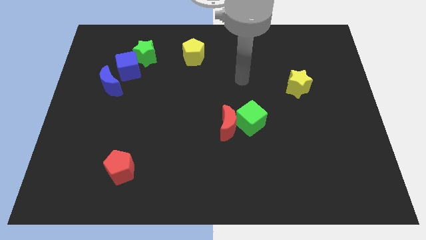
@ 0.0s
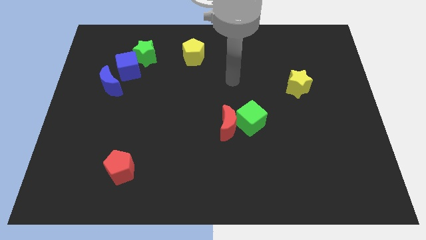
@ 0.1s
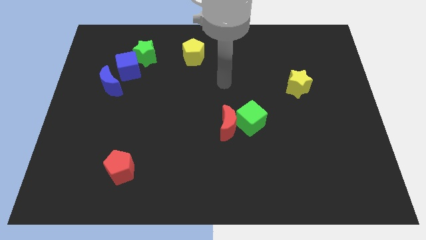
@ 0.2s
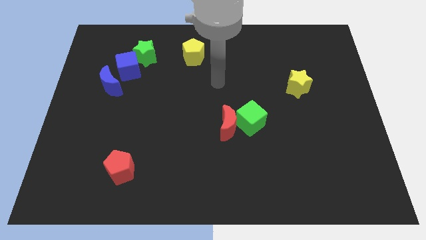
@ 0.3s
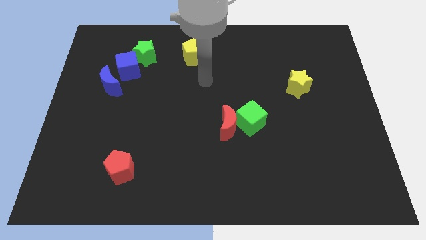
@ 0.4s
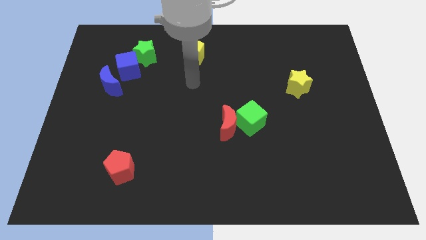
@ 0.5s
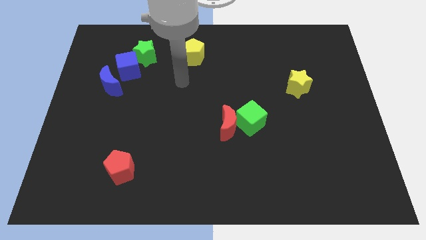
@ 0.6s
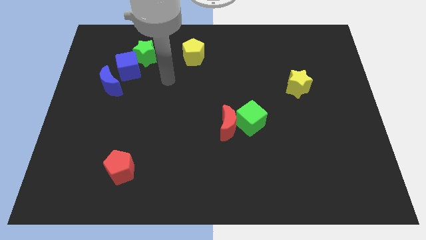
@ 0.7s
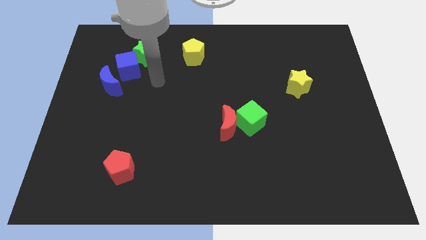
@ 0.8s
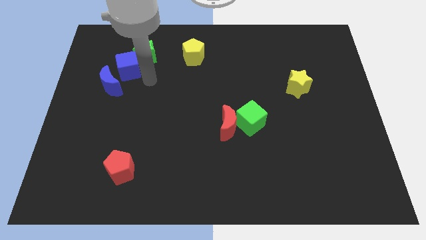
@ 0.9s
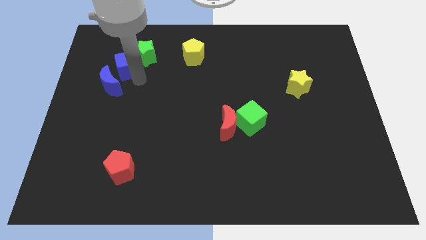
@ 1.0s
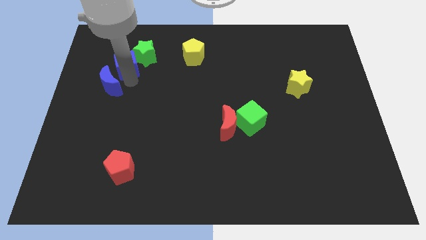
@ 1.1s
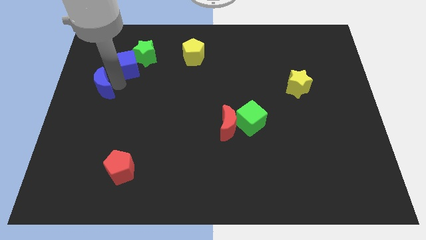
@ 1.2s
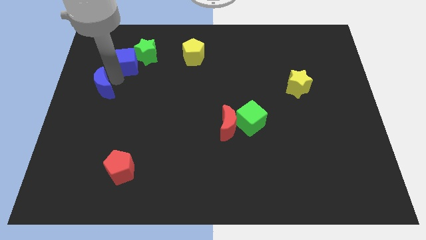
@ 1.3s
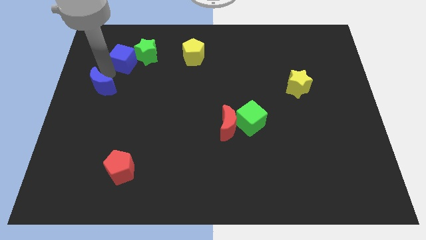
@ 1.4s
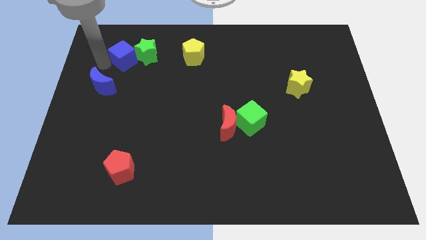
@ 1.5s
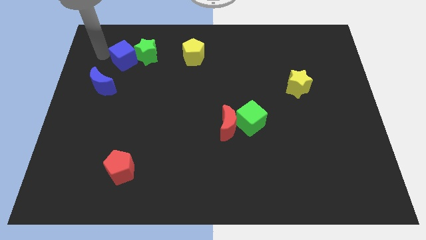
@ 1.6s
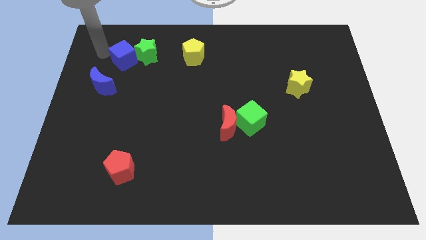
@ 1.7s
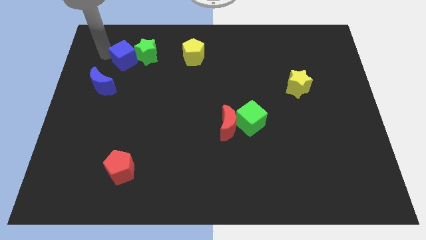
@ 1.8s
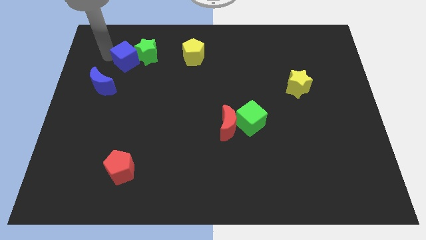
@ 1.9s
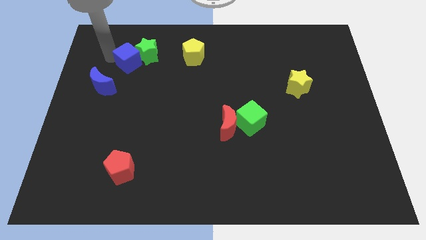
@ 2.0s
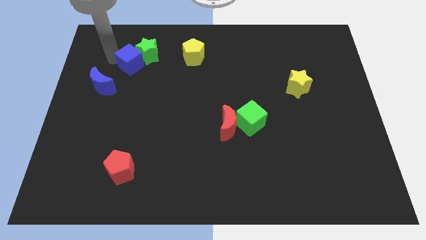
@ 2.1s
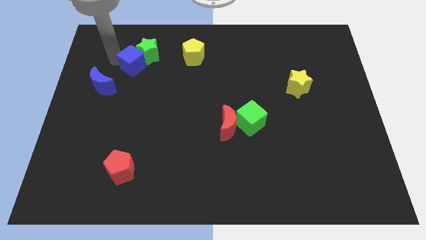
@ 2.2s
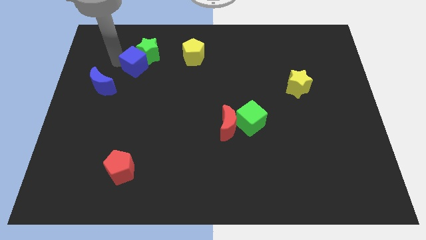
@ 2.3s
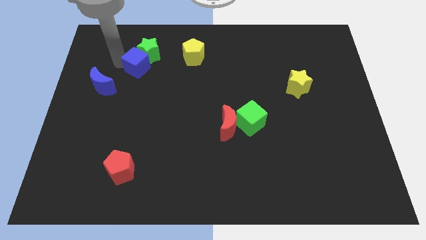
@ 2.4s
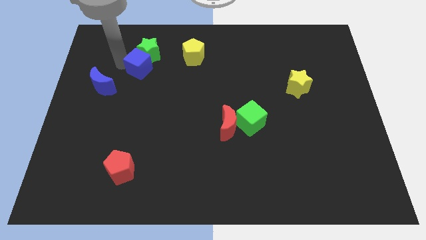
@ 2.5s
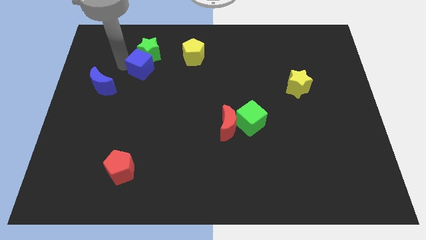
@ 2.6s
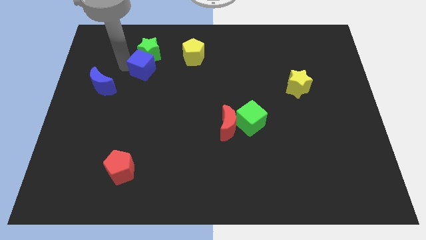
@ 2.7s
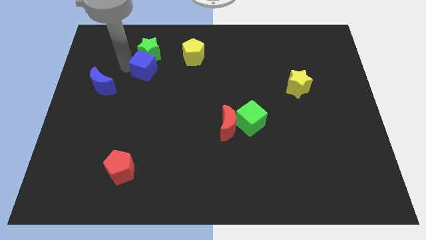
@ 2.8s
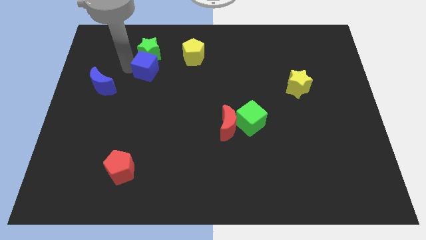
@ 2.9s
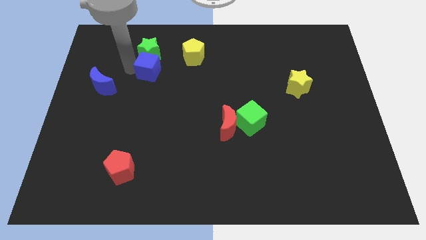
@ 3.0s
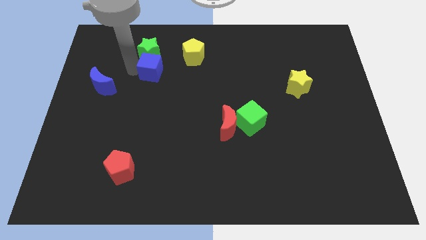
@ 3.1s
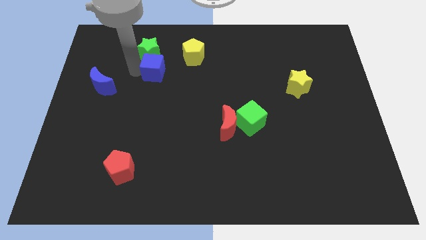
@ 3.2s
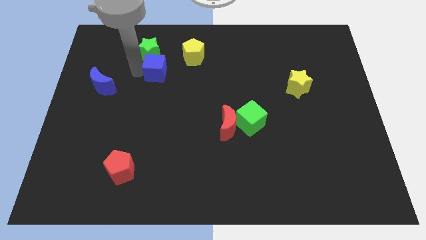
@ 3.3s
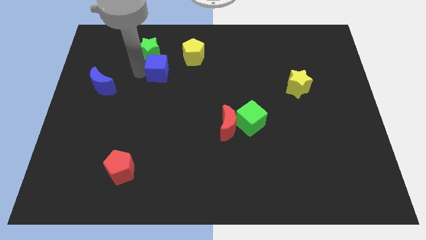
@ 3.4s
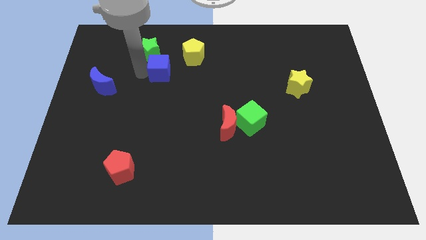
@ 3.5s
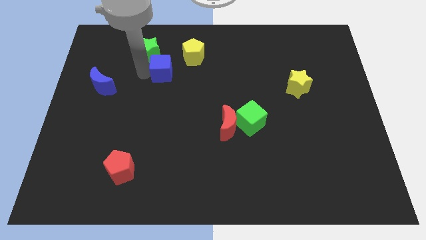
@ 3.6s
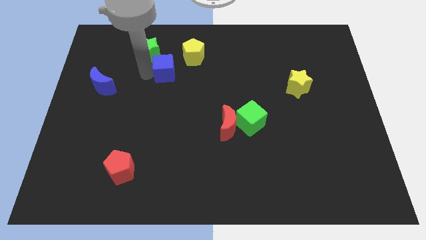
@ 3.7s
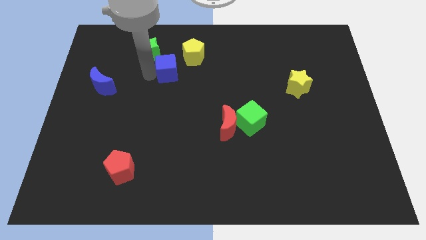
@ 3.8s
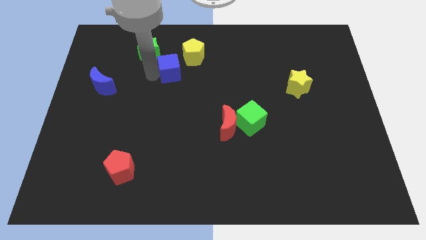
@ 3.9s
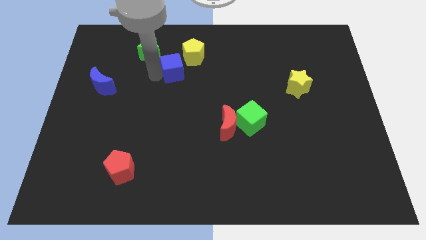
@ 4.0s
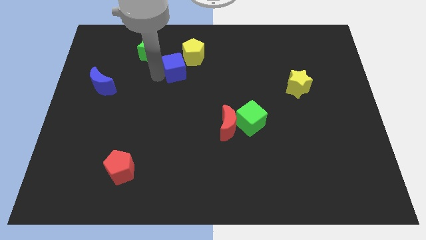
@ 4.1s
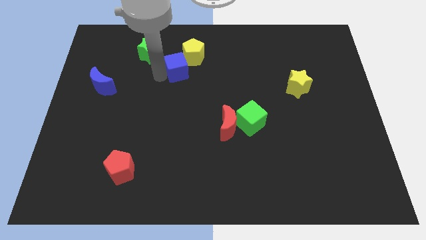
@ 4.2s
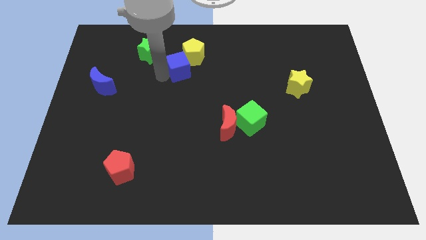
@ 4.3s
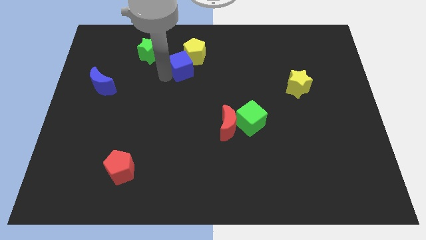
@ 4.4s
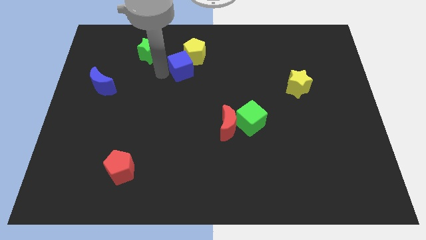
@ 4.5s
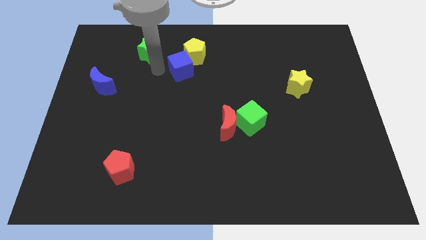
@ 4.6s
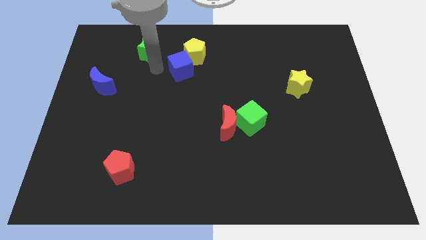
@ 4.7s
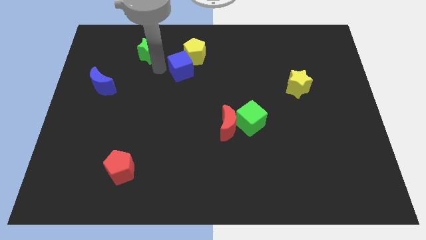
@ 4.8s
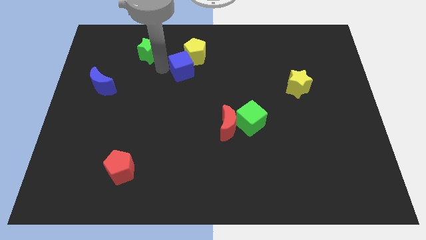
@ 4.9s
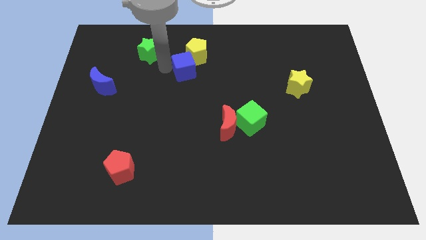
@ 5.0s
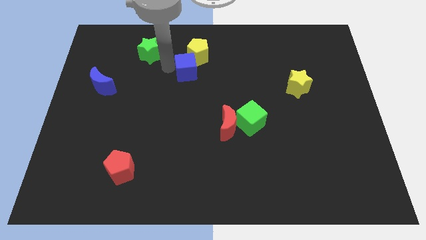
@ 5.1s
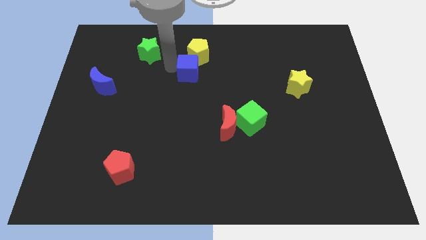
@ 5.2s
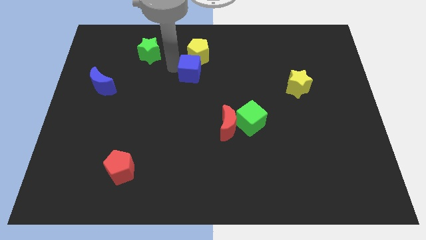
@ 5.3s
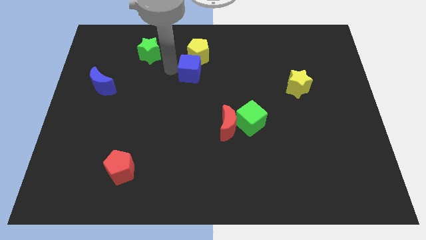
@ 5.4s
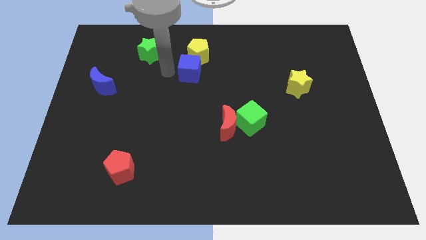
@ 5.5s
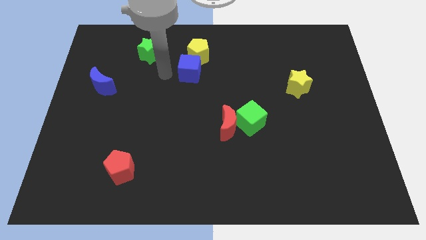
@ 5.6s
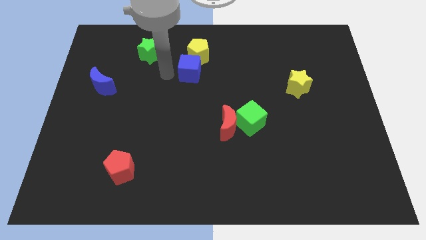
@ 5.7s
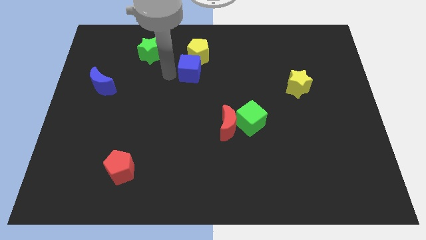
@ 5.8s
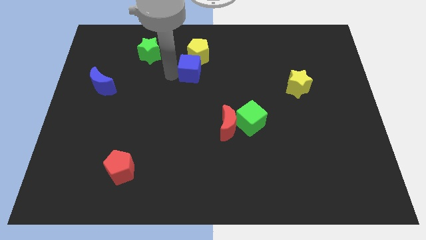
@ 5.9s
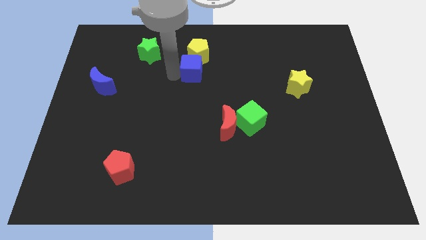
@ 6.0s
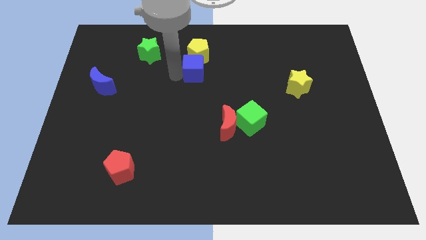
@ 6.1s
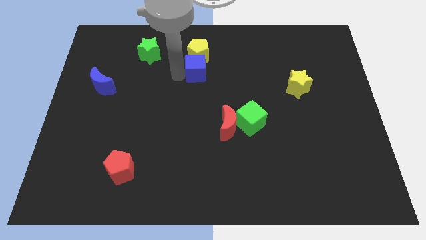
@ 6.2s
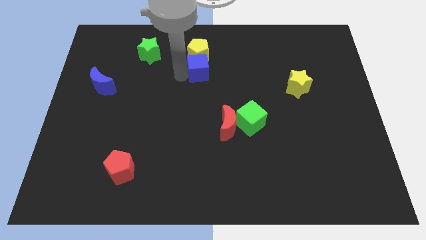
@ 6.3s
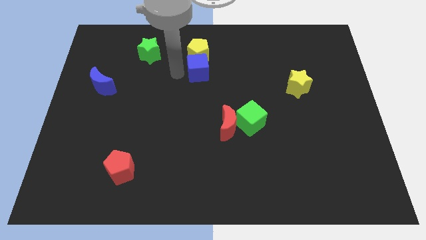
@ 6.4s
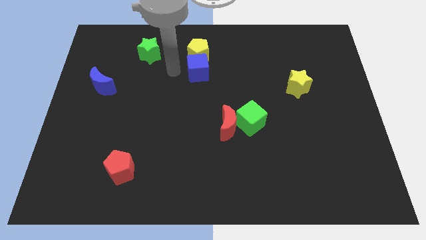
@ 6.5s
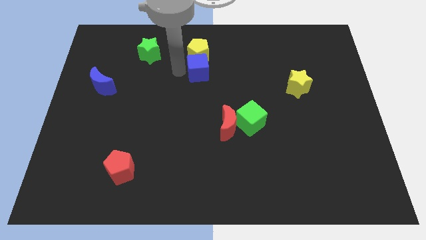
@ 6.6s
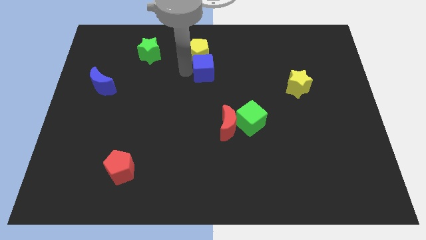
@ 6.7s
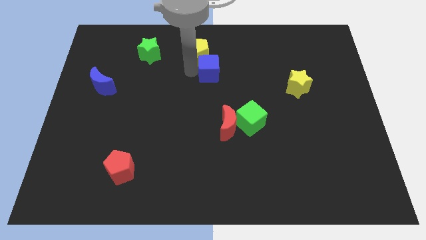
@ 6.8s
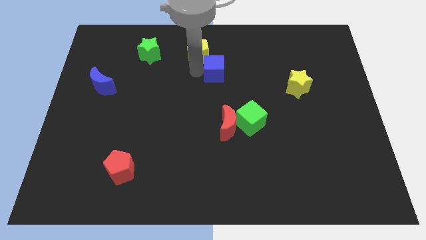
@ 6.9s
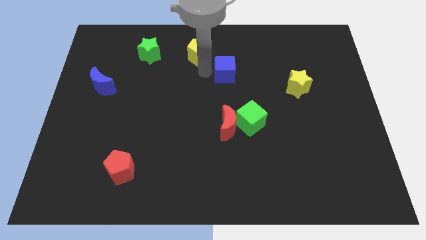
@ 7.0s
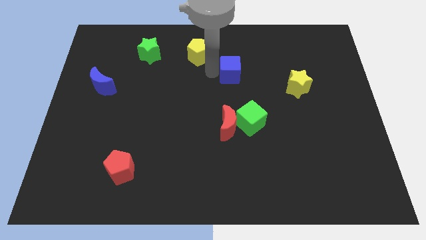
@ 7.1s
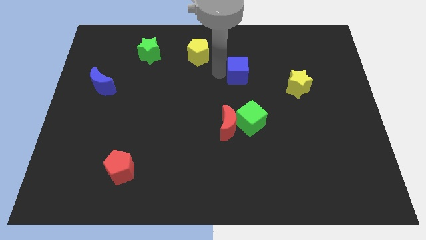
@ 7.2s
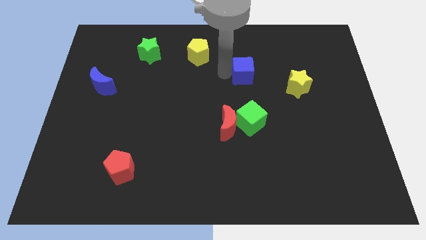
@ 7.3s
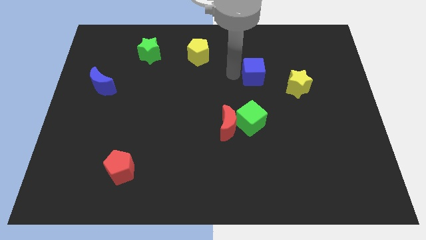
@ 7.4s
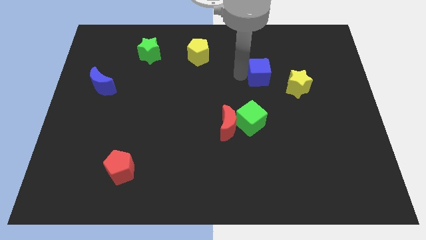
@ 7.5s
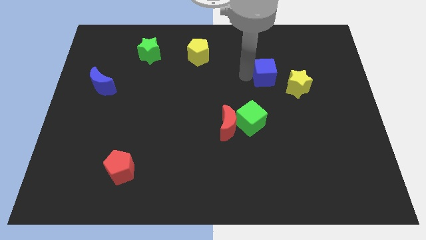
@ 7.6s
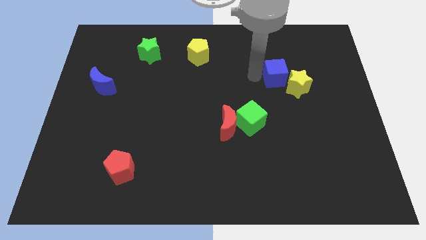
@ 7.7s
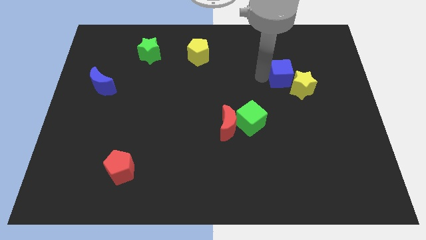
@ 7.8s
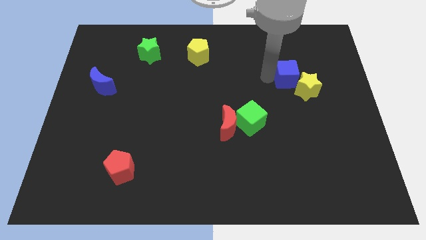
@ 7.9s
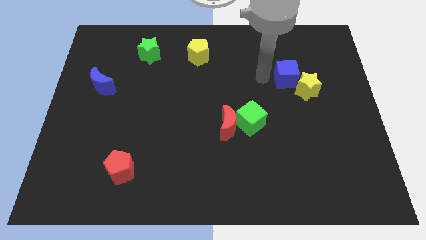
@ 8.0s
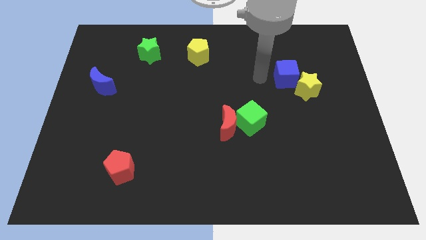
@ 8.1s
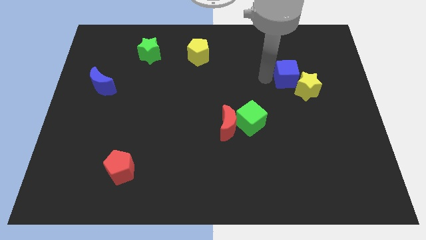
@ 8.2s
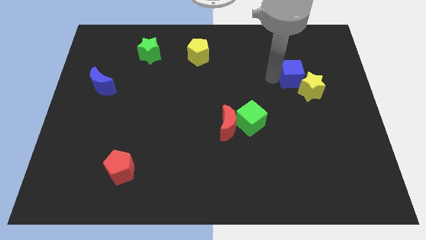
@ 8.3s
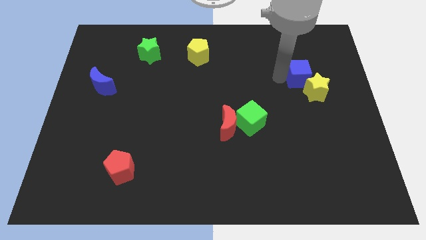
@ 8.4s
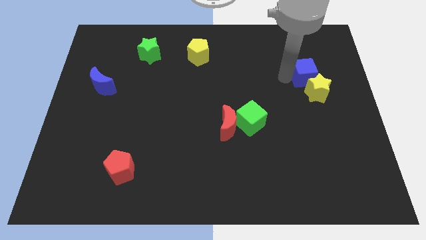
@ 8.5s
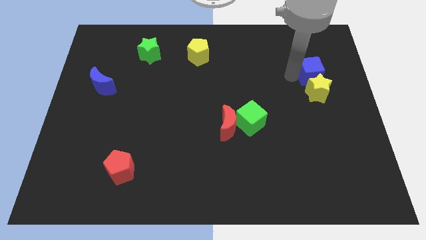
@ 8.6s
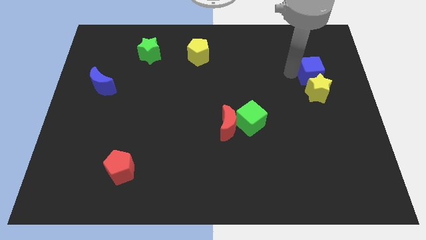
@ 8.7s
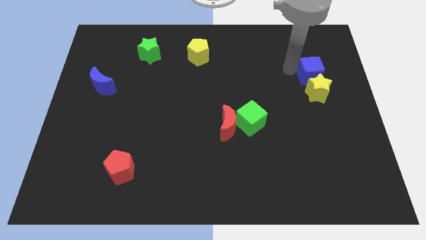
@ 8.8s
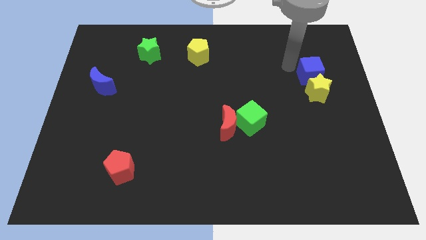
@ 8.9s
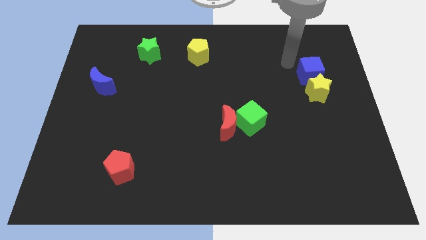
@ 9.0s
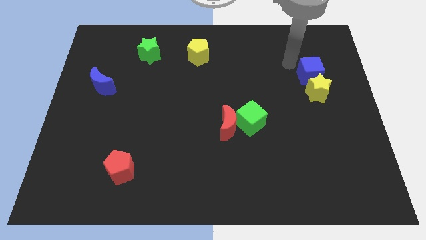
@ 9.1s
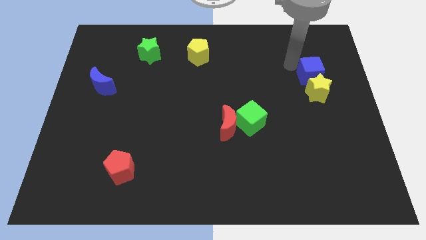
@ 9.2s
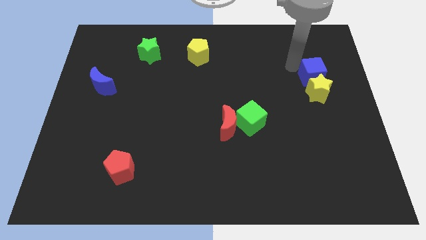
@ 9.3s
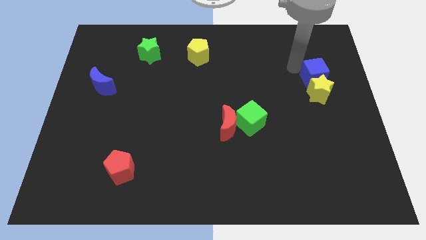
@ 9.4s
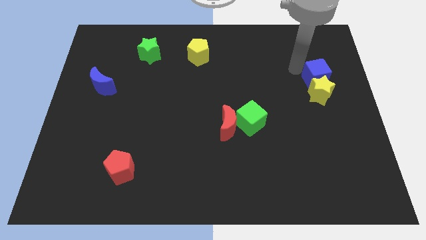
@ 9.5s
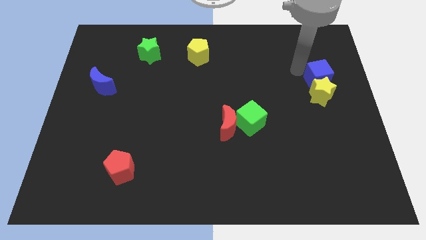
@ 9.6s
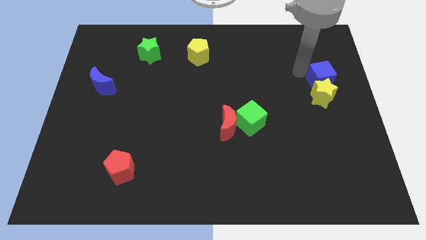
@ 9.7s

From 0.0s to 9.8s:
slide the blue cube to the right side of the board
